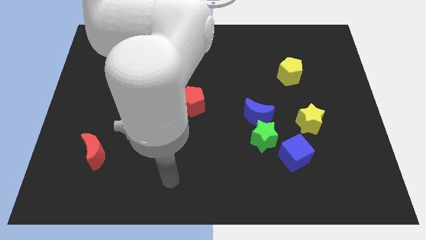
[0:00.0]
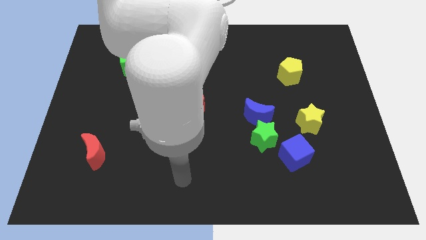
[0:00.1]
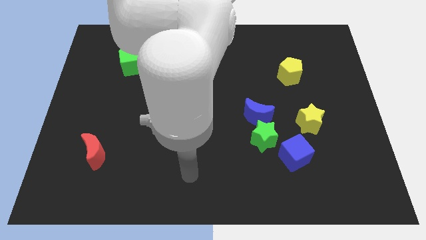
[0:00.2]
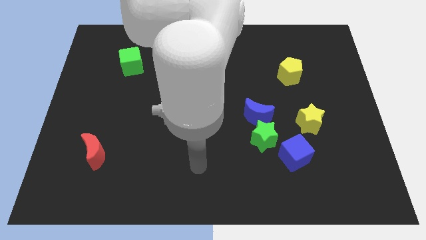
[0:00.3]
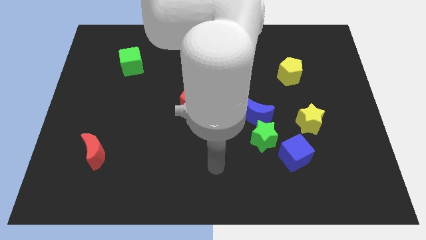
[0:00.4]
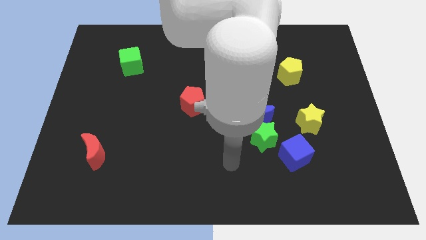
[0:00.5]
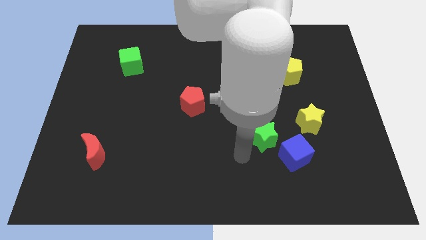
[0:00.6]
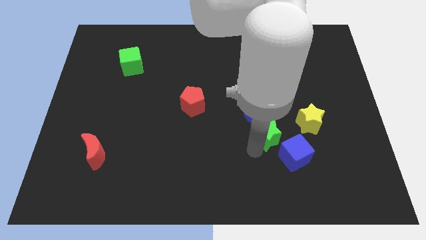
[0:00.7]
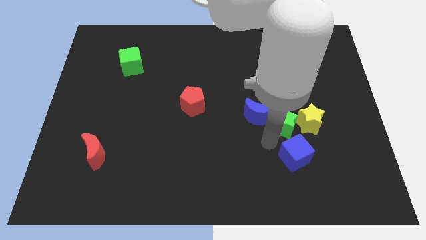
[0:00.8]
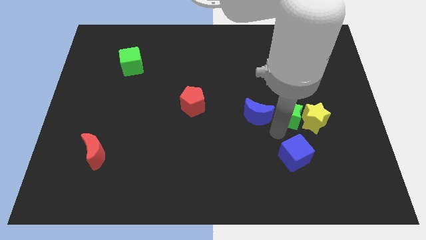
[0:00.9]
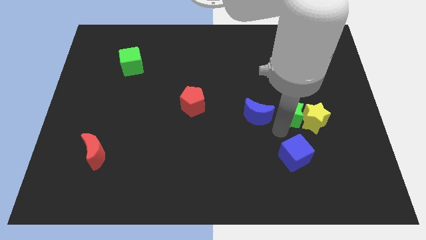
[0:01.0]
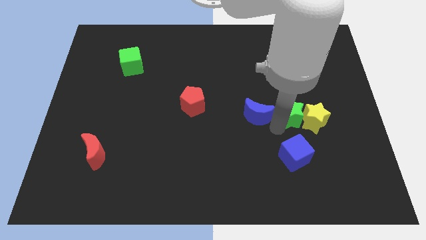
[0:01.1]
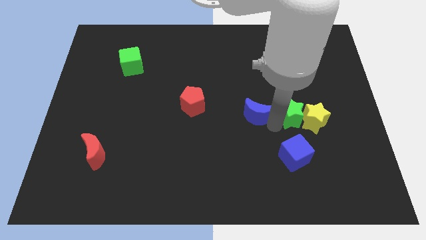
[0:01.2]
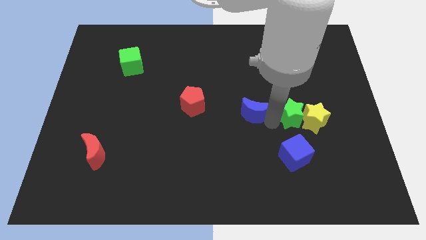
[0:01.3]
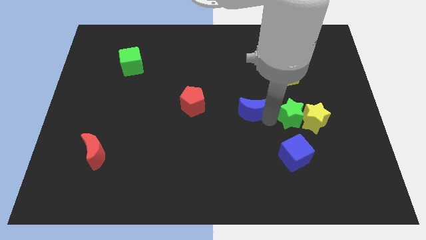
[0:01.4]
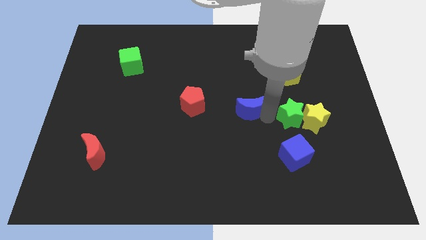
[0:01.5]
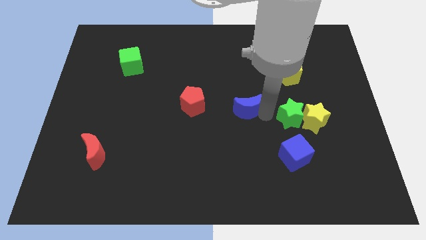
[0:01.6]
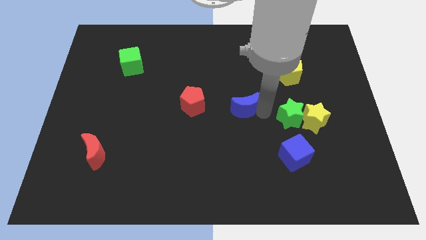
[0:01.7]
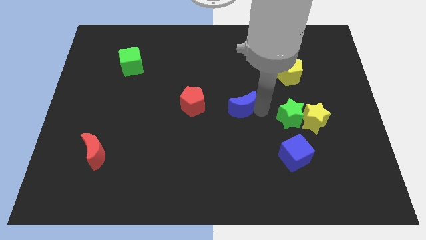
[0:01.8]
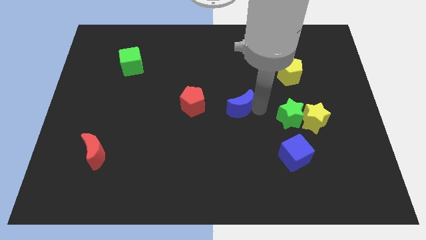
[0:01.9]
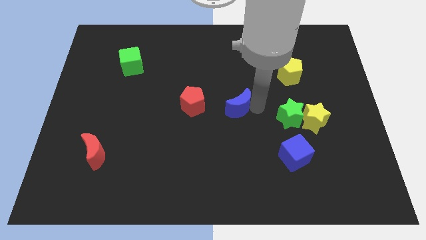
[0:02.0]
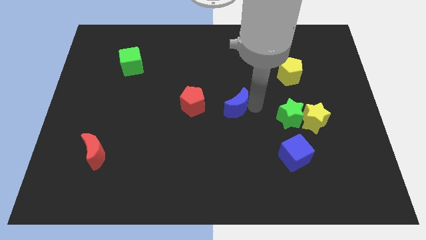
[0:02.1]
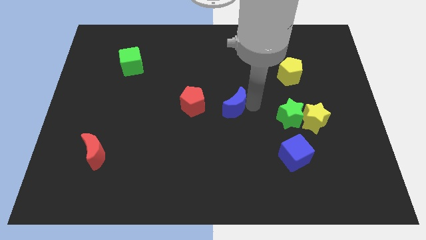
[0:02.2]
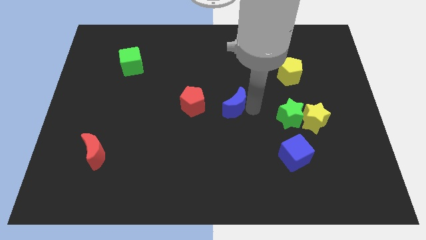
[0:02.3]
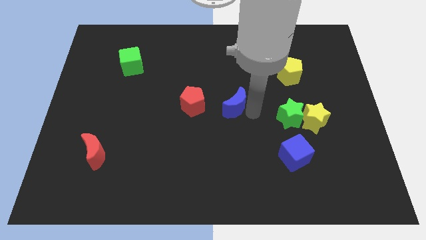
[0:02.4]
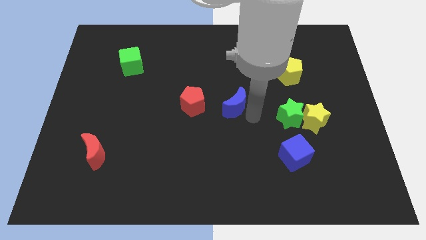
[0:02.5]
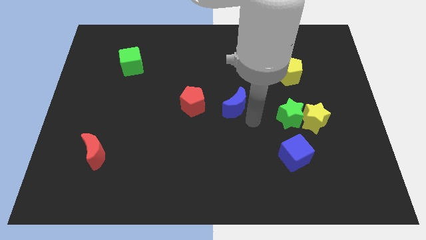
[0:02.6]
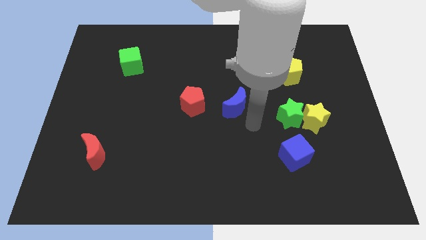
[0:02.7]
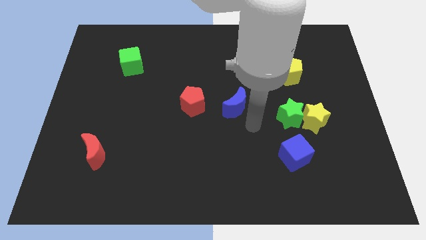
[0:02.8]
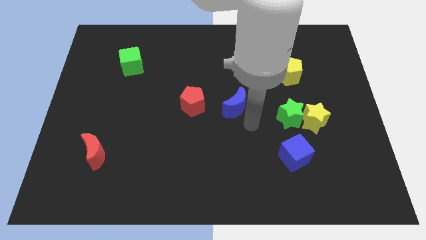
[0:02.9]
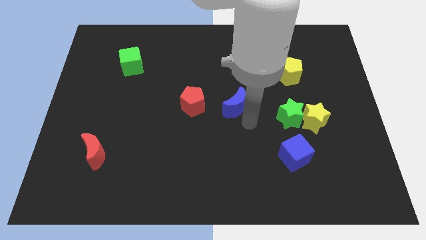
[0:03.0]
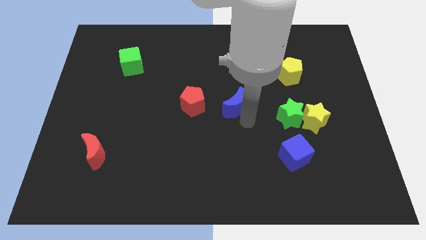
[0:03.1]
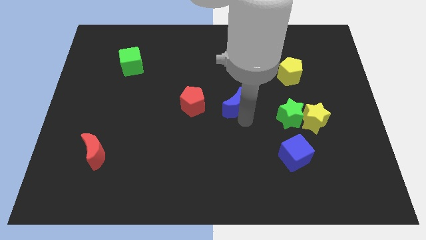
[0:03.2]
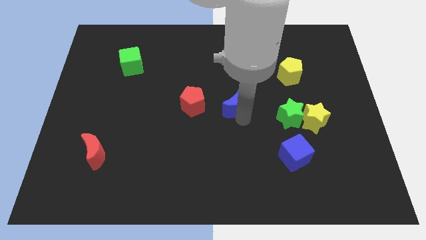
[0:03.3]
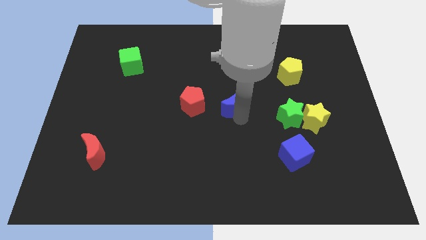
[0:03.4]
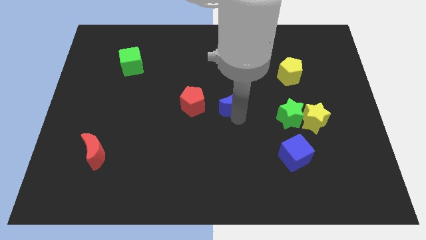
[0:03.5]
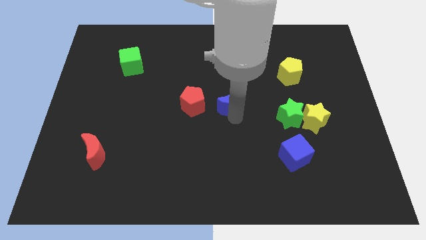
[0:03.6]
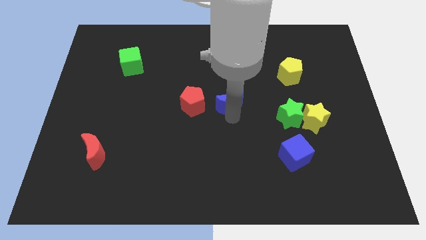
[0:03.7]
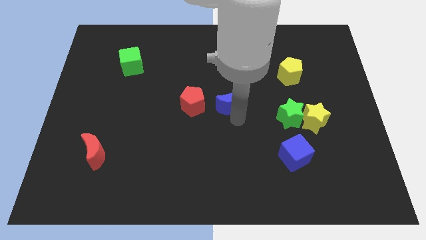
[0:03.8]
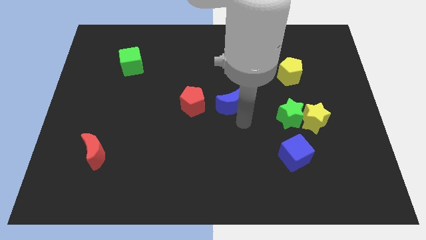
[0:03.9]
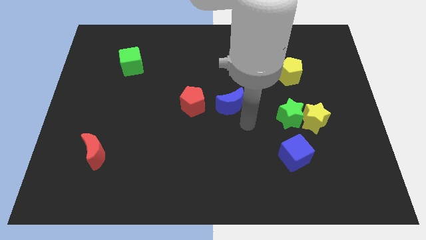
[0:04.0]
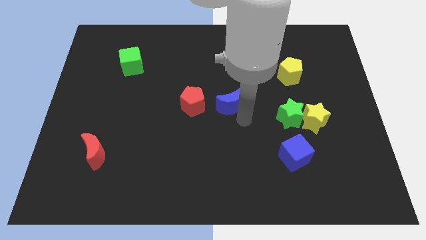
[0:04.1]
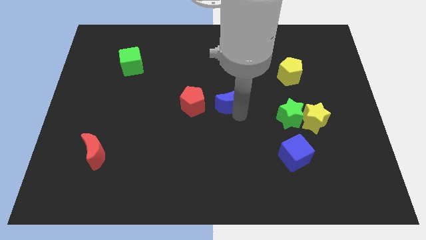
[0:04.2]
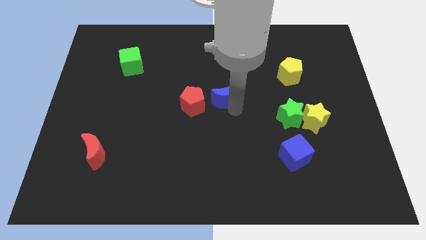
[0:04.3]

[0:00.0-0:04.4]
slide the blue moon upwards and to the left slightly

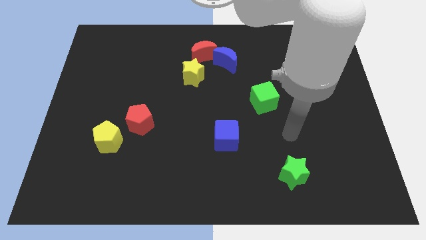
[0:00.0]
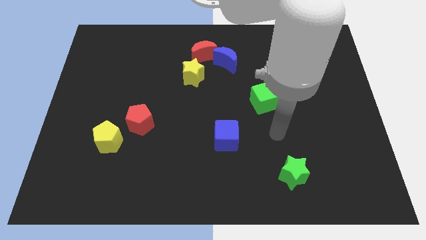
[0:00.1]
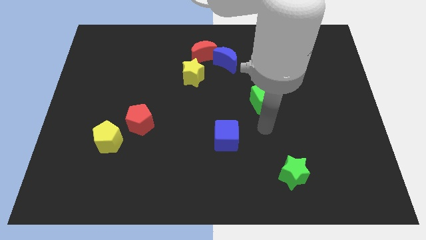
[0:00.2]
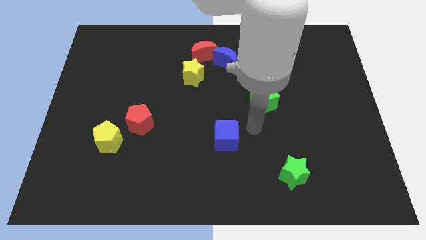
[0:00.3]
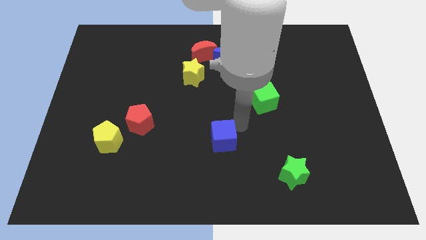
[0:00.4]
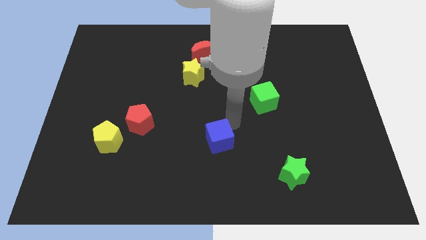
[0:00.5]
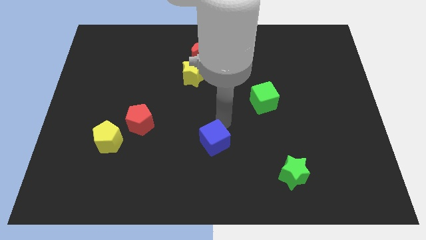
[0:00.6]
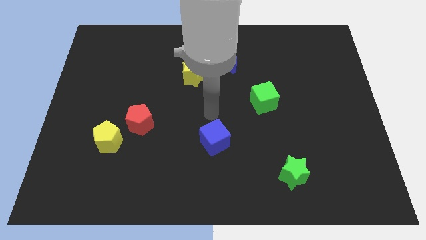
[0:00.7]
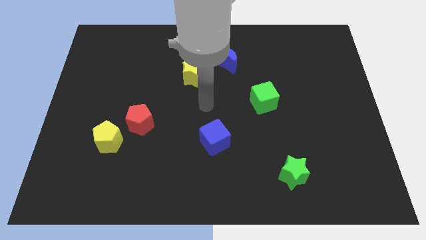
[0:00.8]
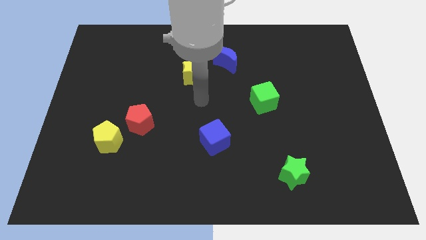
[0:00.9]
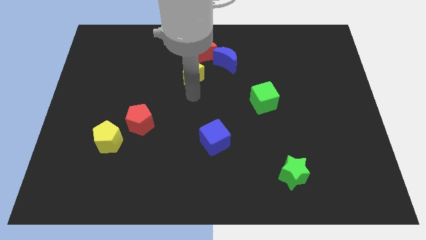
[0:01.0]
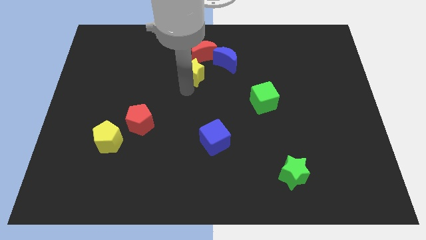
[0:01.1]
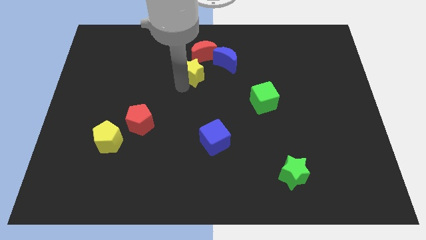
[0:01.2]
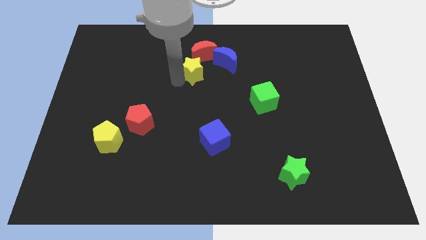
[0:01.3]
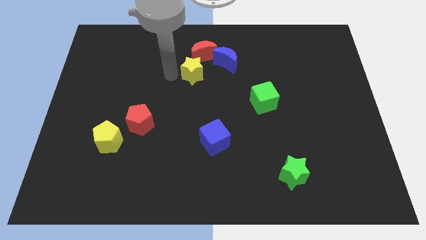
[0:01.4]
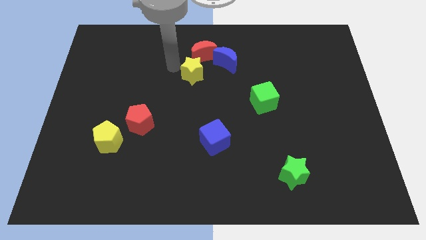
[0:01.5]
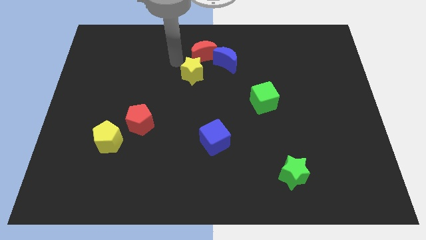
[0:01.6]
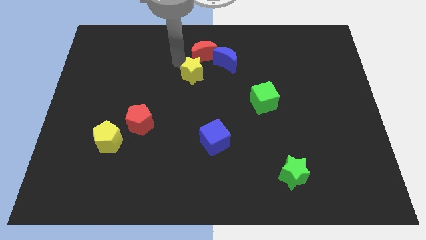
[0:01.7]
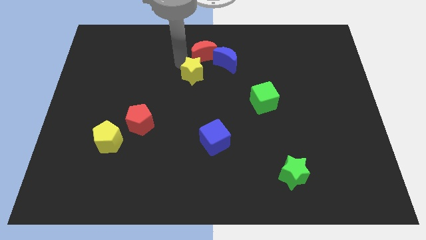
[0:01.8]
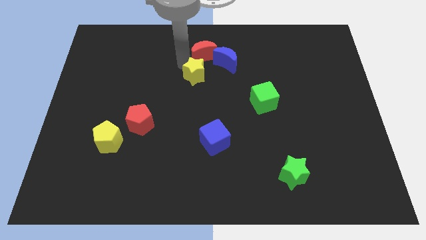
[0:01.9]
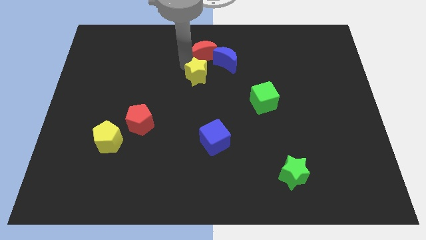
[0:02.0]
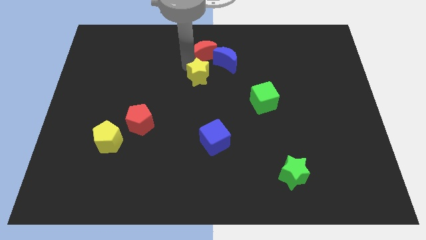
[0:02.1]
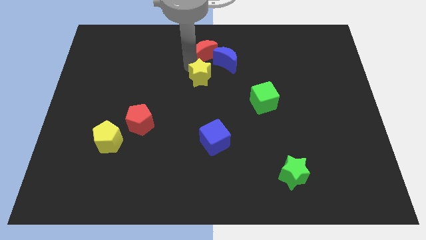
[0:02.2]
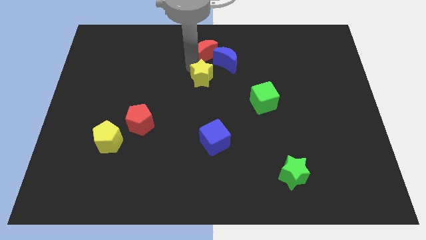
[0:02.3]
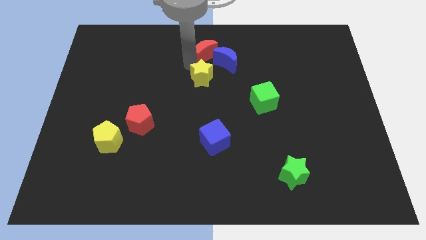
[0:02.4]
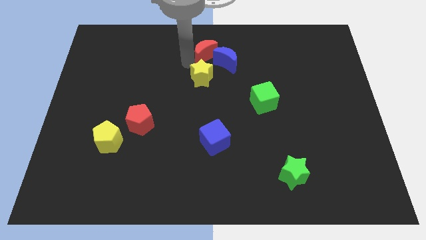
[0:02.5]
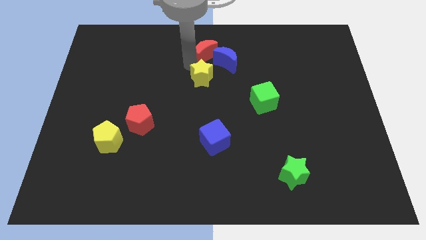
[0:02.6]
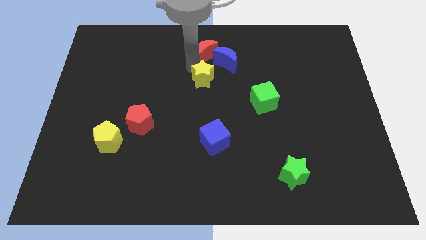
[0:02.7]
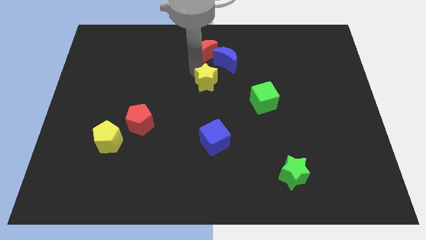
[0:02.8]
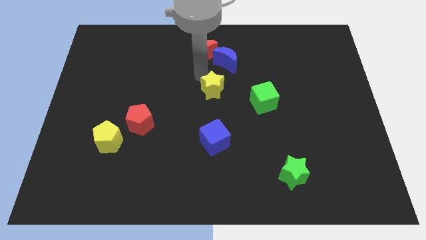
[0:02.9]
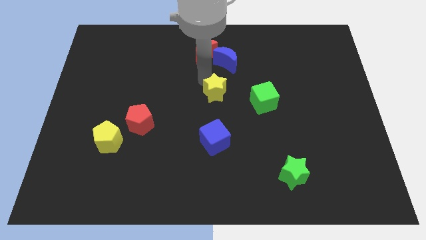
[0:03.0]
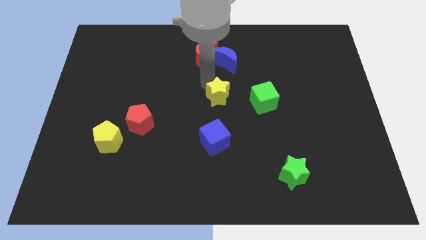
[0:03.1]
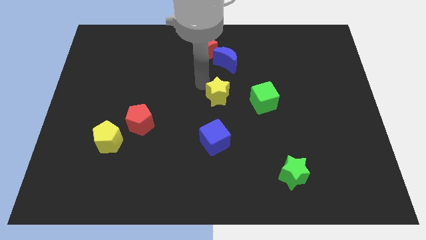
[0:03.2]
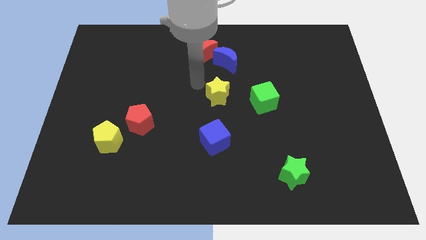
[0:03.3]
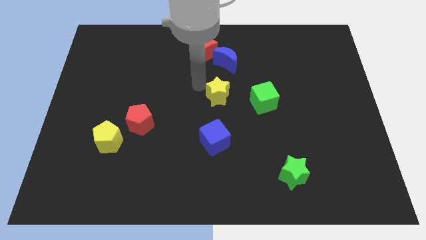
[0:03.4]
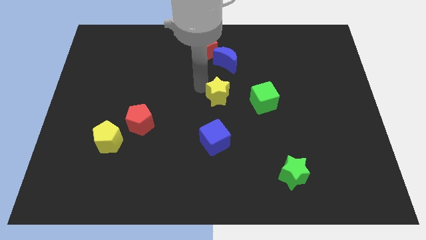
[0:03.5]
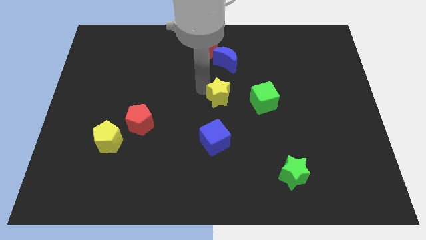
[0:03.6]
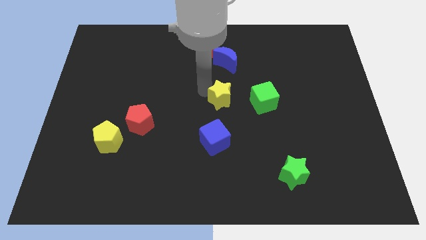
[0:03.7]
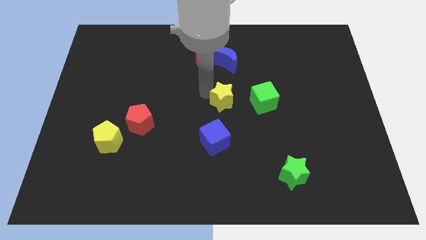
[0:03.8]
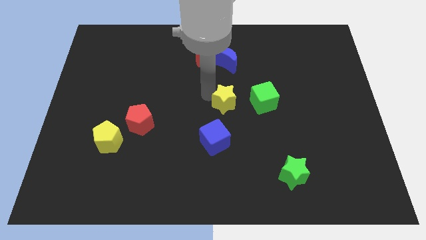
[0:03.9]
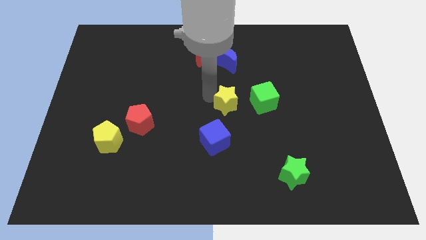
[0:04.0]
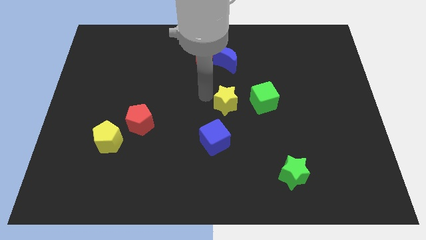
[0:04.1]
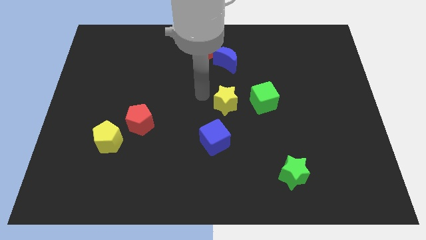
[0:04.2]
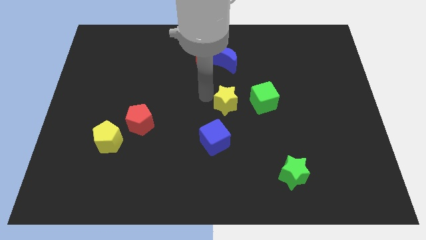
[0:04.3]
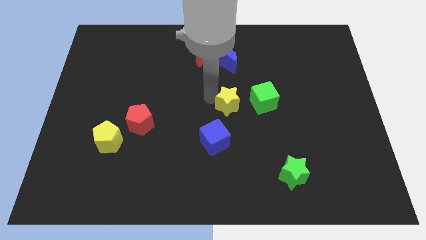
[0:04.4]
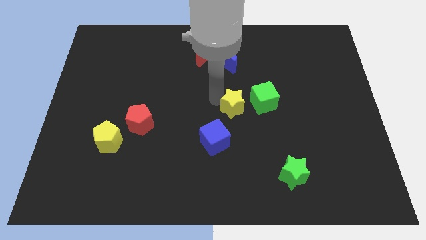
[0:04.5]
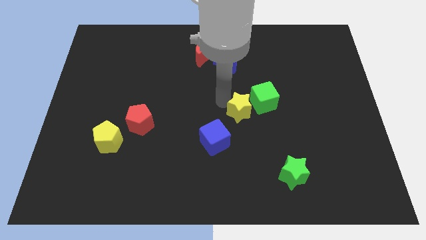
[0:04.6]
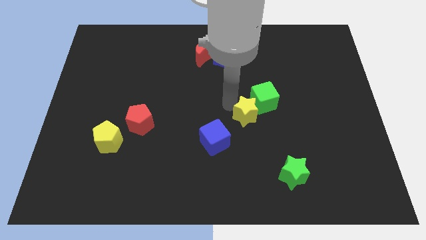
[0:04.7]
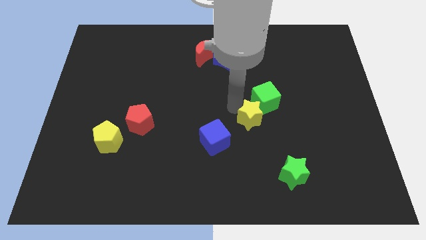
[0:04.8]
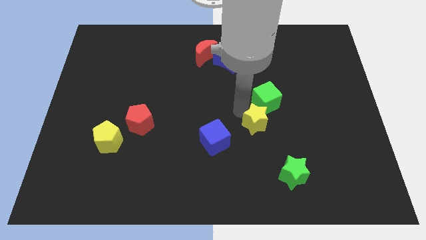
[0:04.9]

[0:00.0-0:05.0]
slide the yellow star downwards and to the right diagonally
